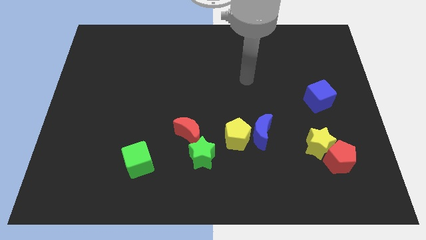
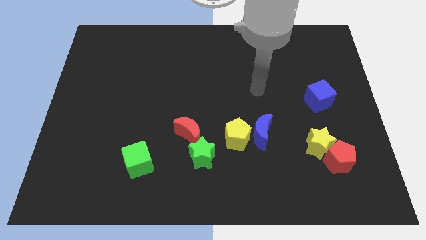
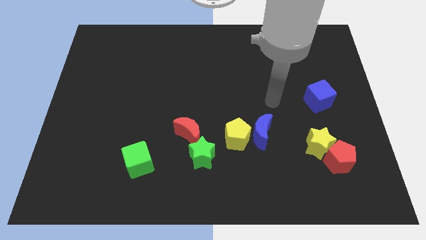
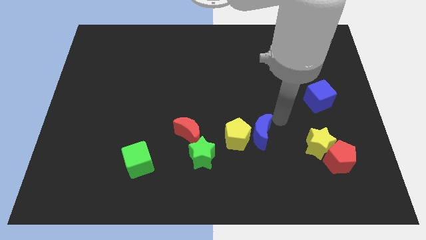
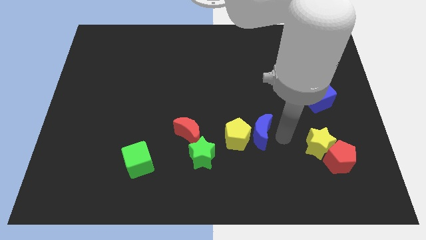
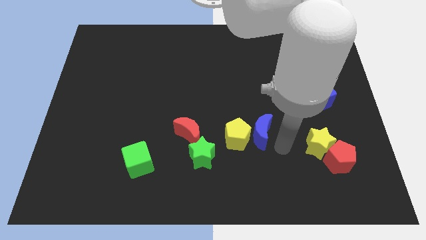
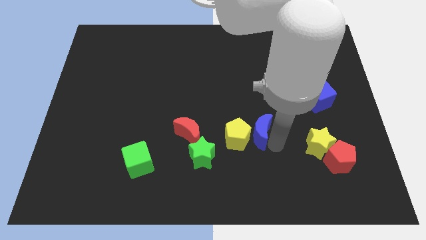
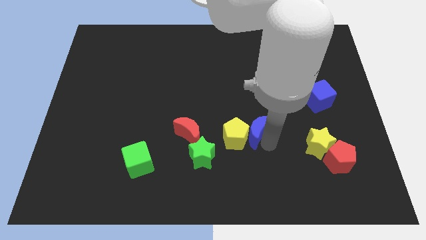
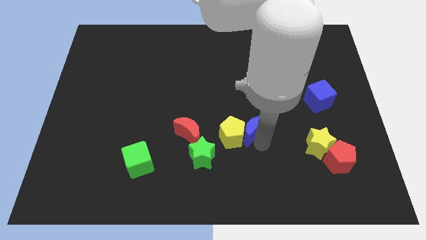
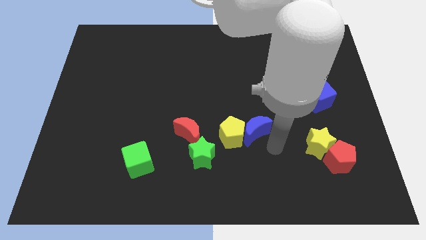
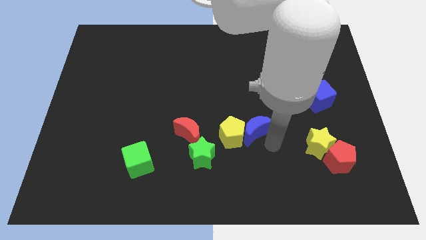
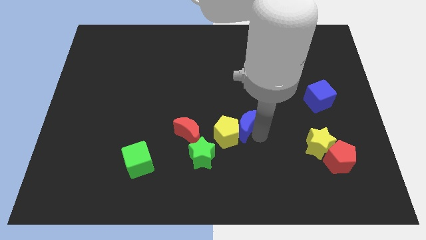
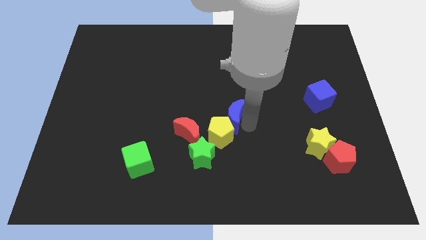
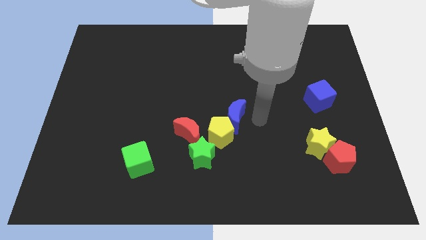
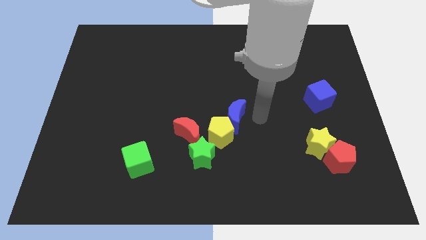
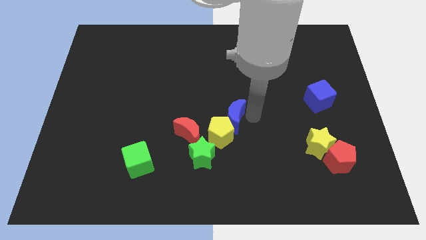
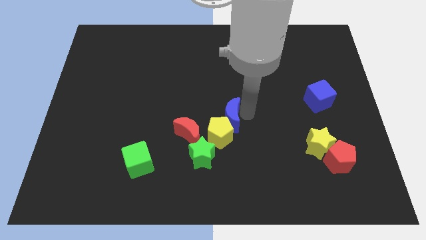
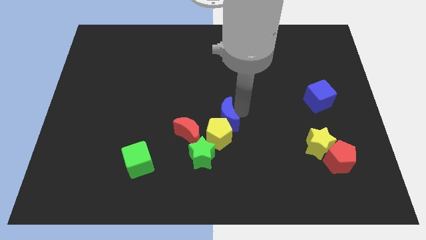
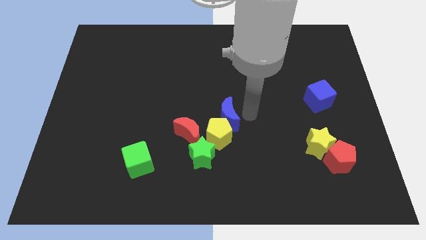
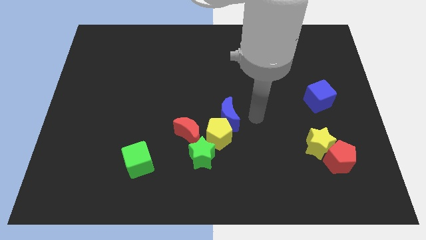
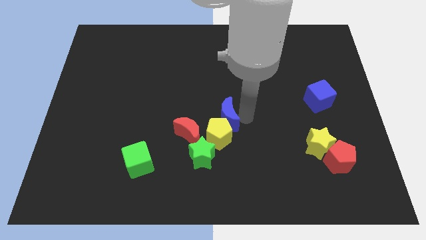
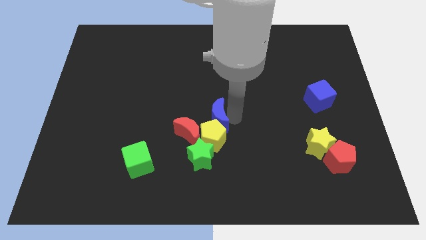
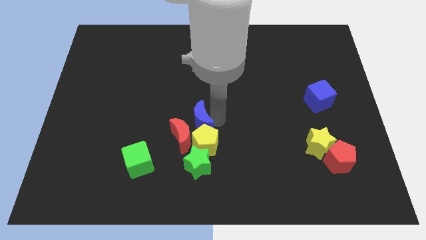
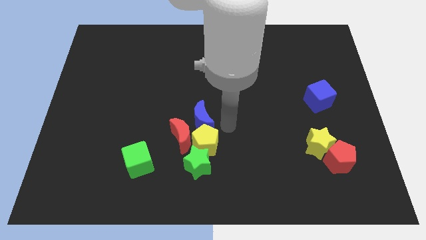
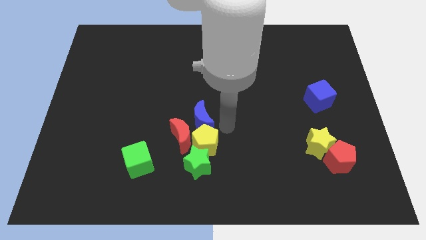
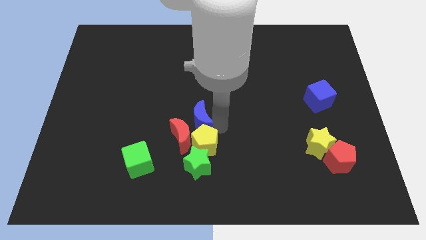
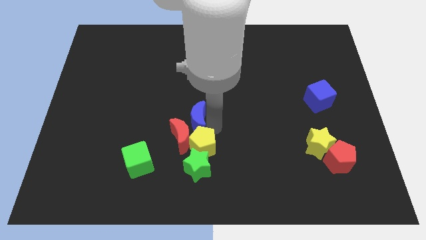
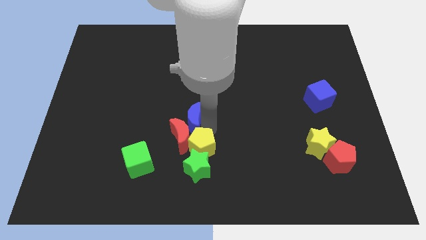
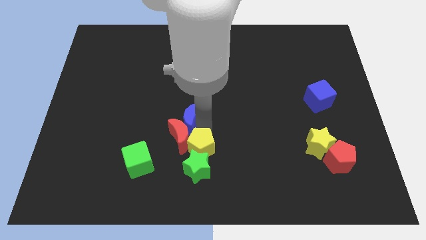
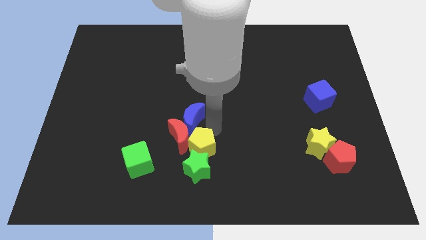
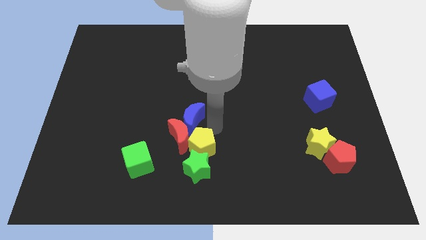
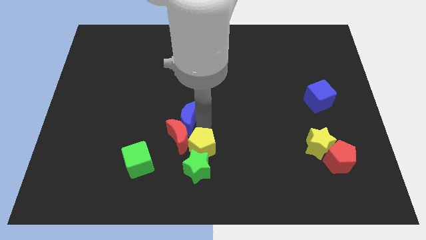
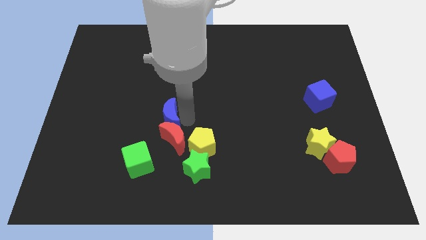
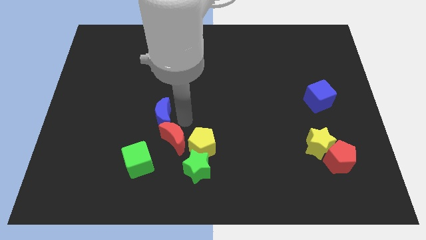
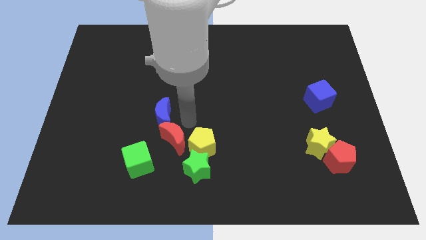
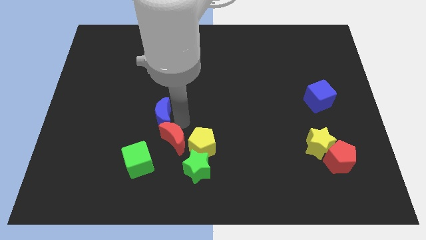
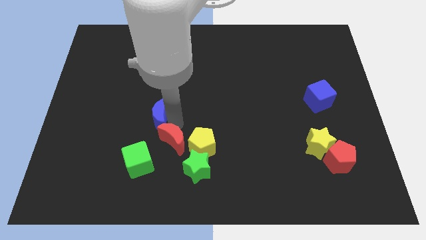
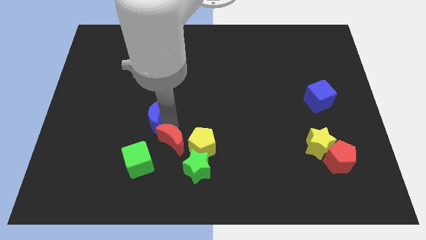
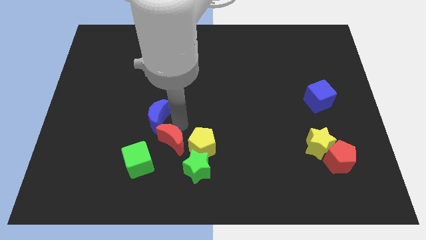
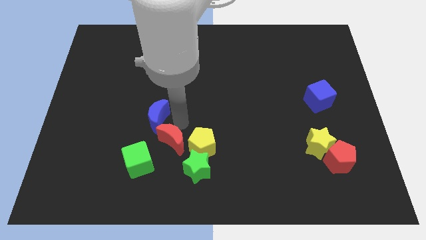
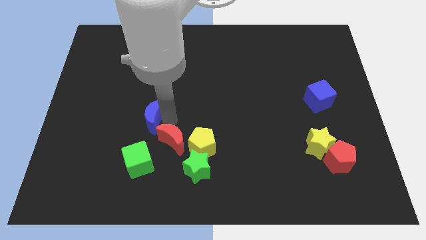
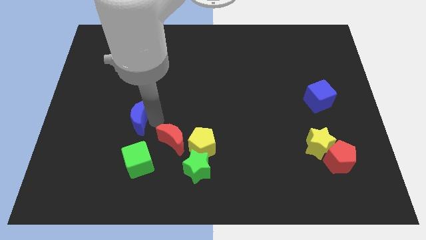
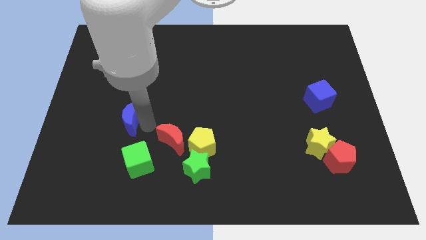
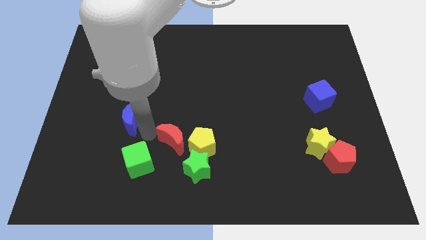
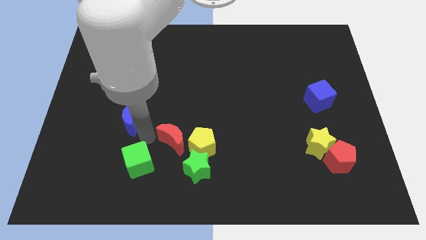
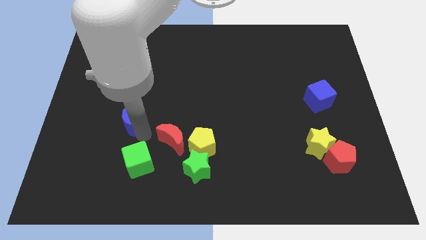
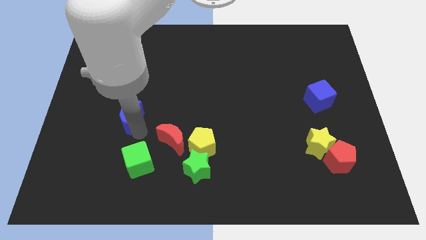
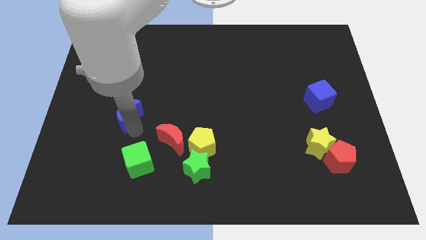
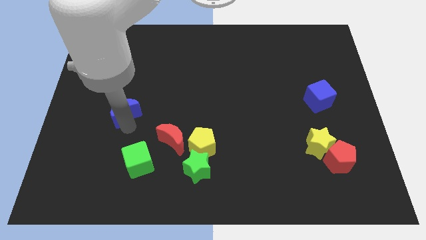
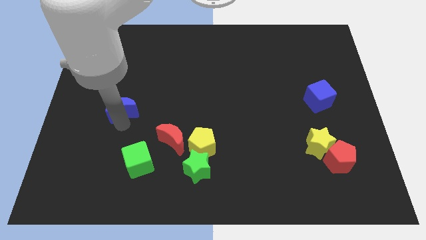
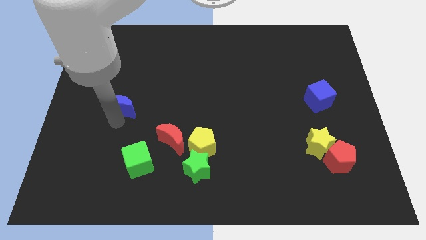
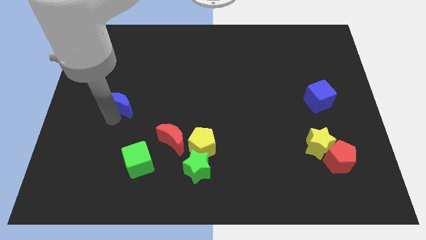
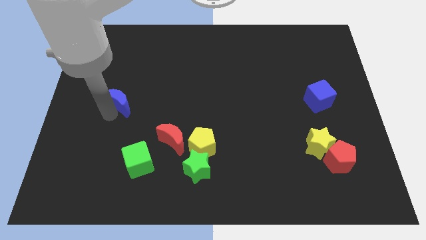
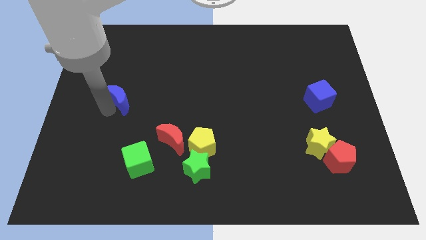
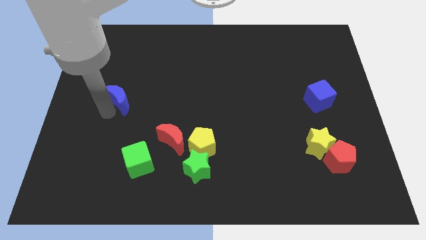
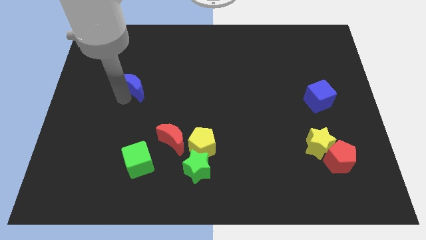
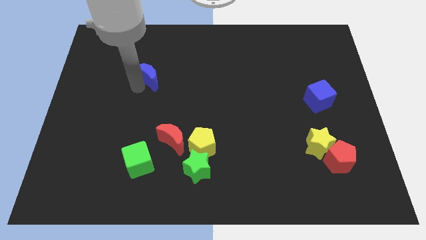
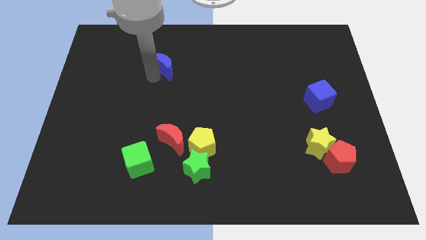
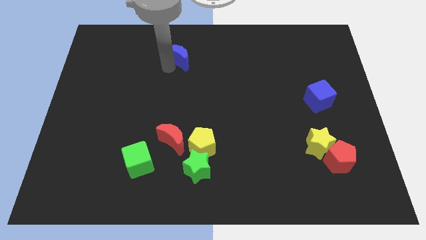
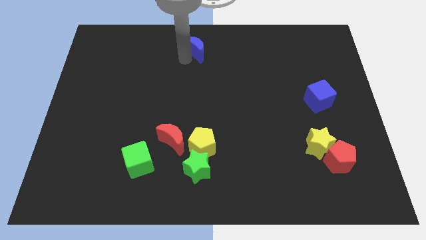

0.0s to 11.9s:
push the blue moon to the top side

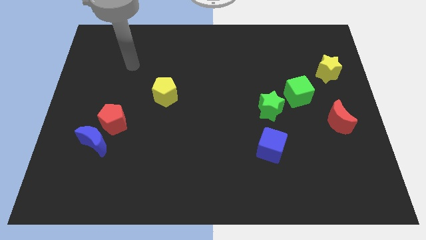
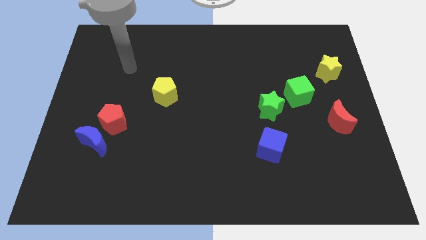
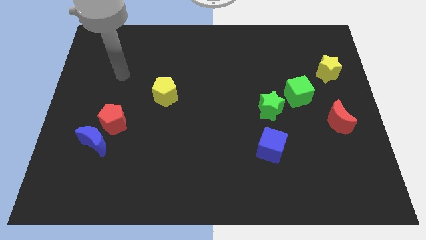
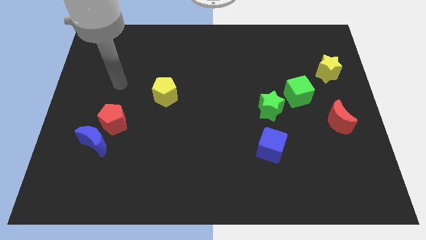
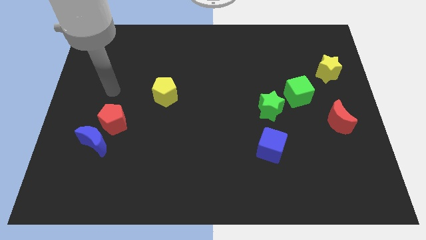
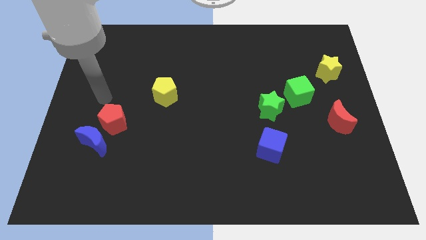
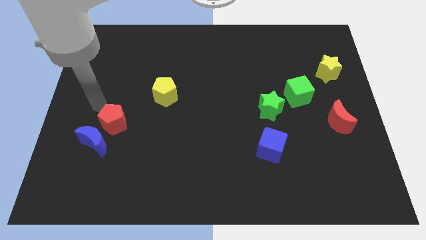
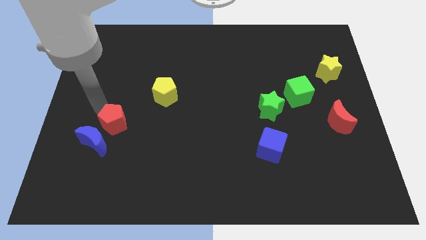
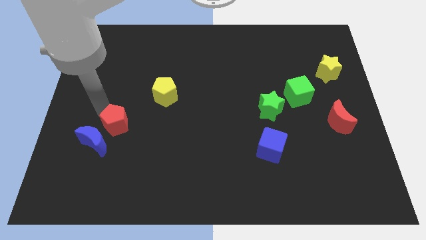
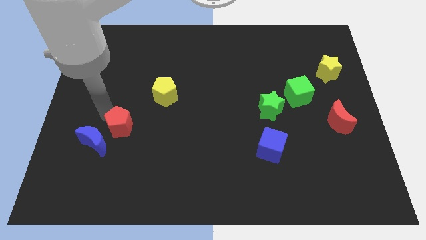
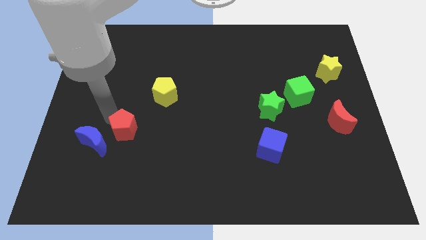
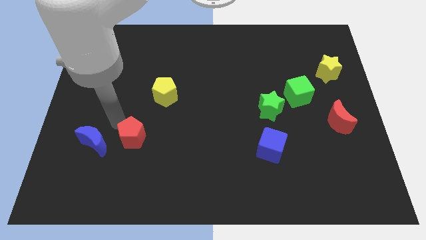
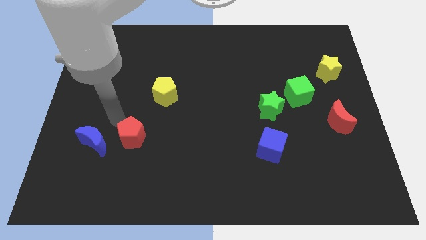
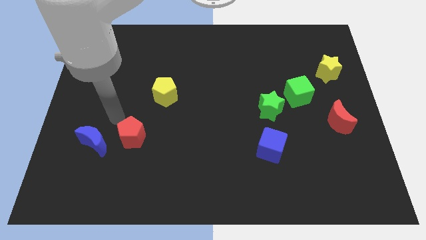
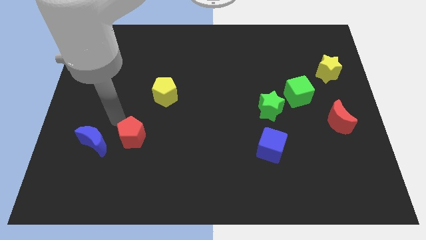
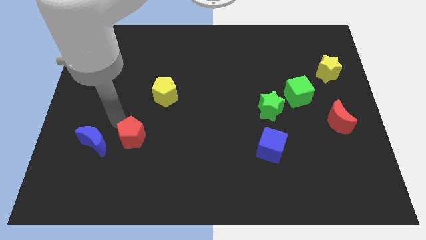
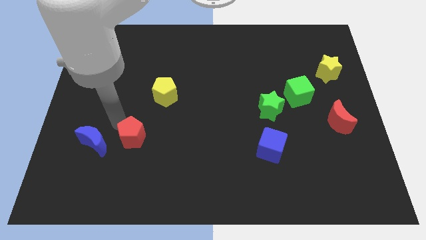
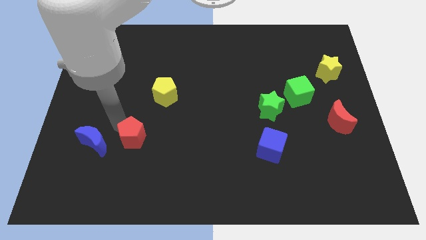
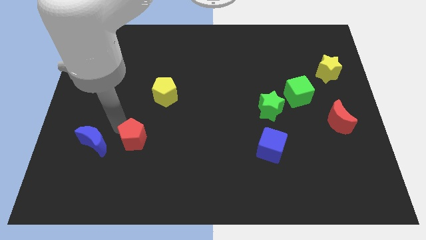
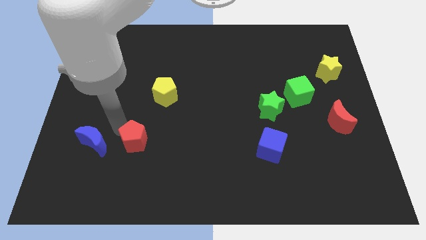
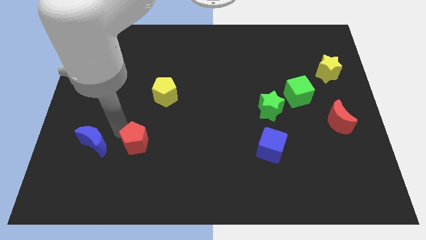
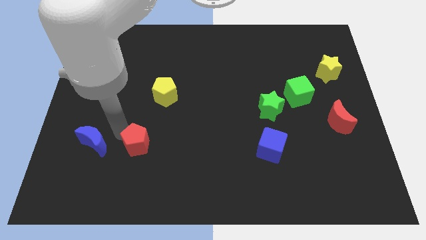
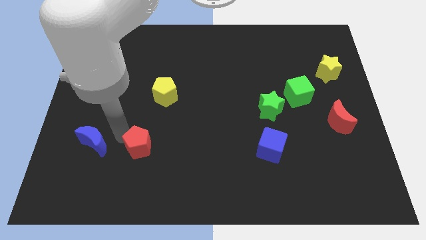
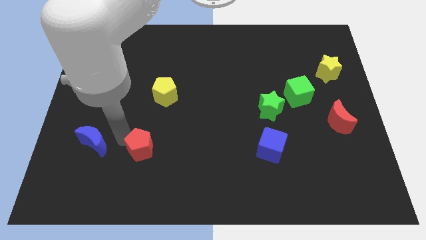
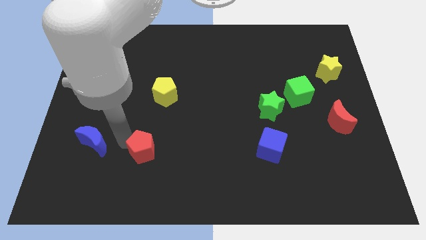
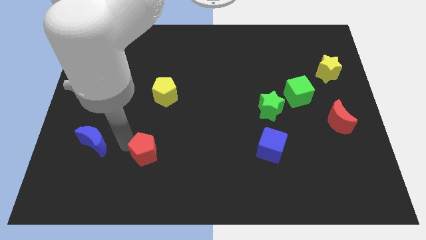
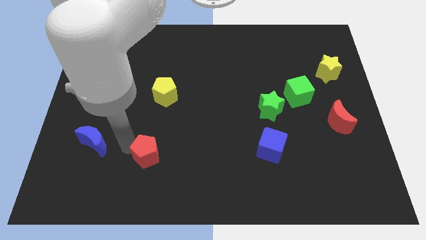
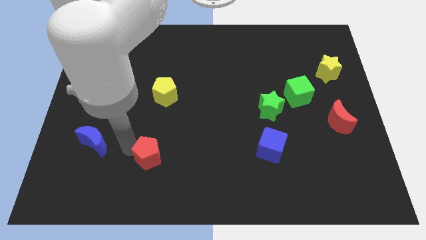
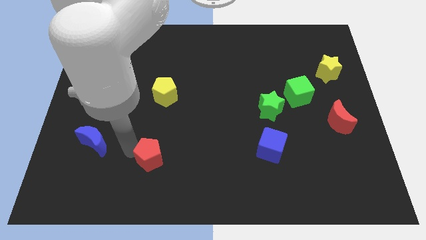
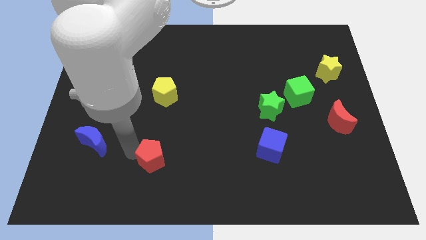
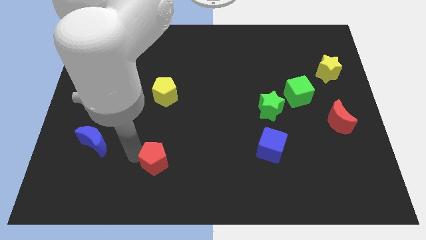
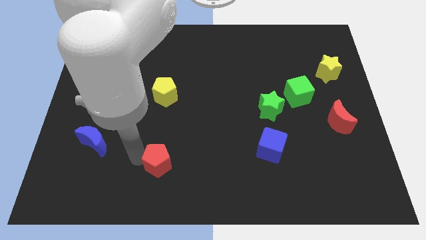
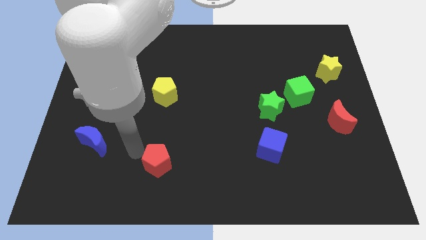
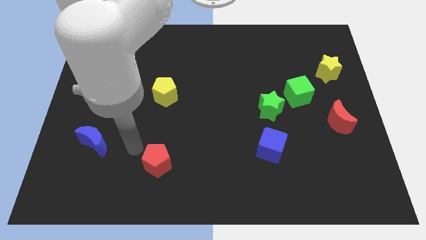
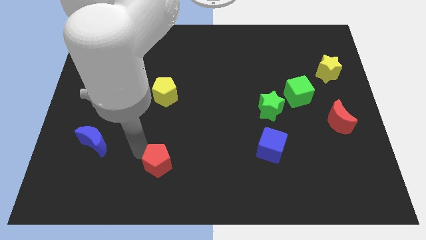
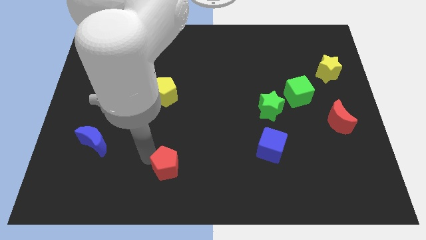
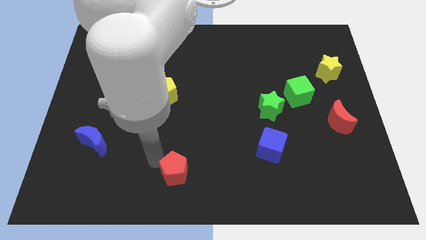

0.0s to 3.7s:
put the red pentagon to the bottom
